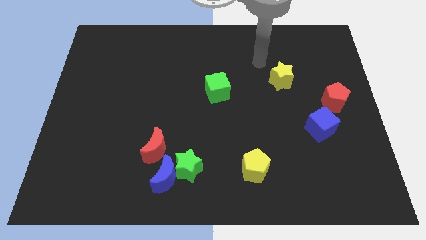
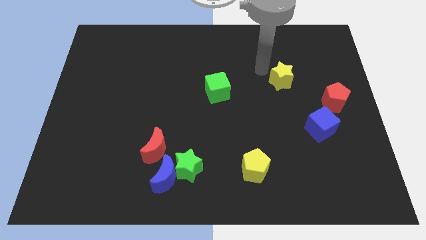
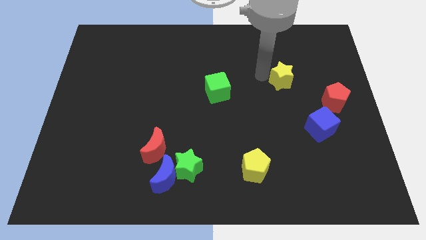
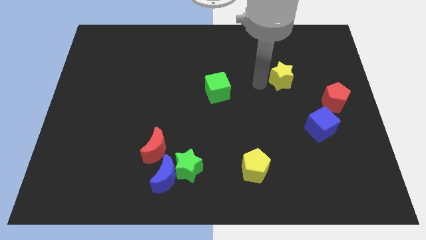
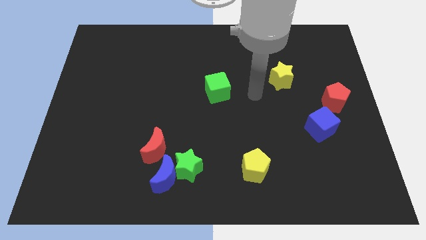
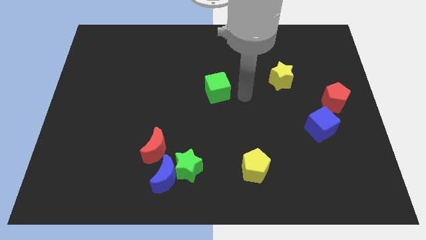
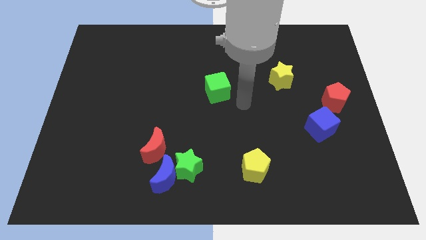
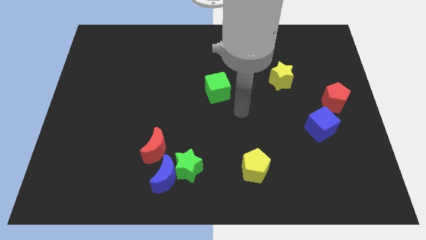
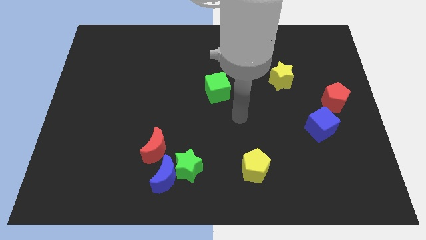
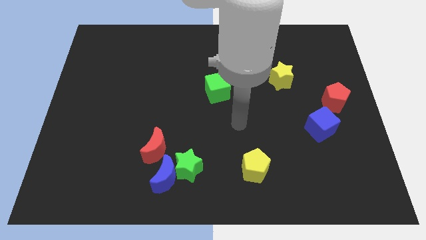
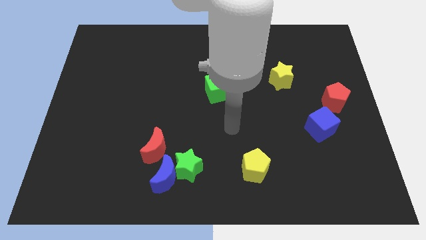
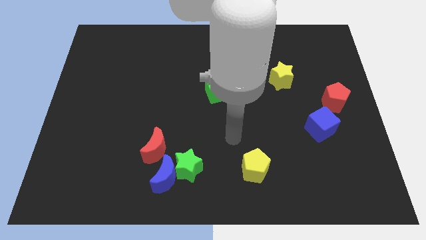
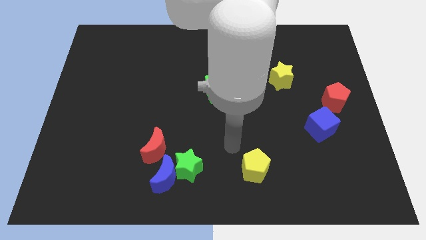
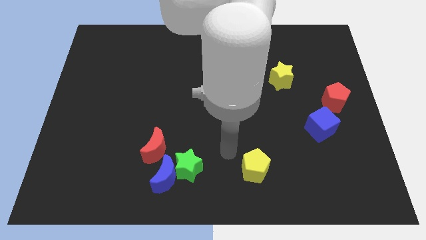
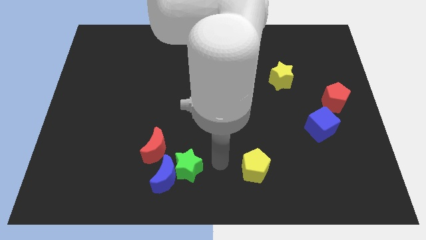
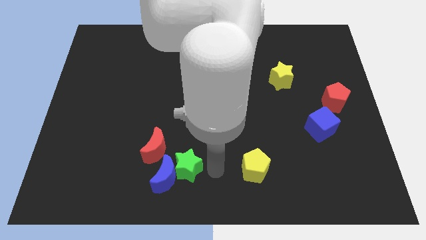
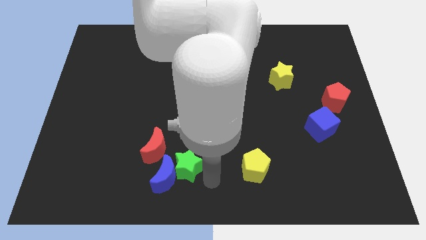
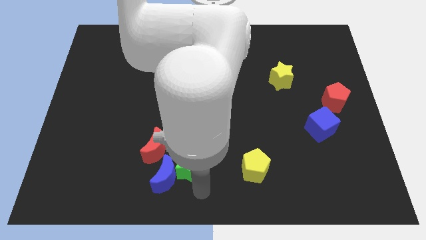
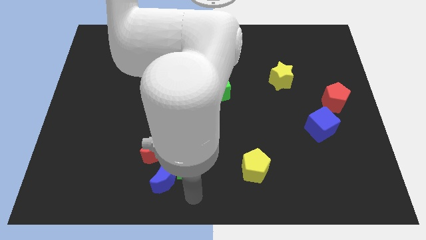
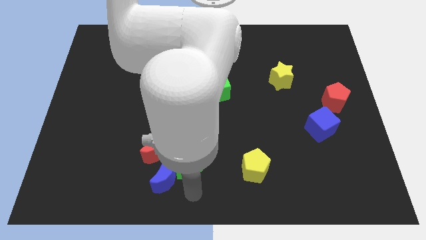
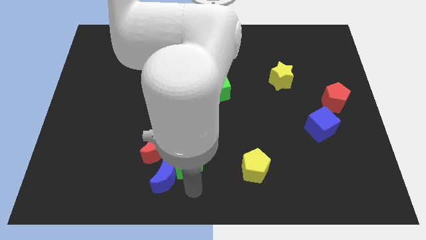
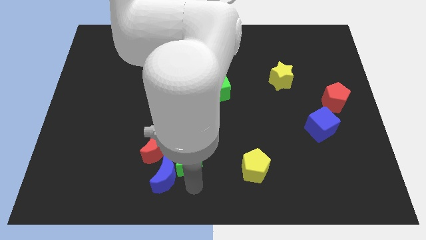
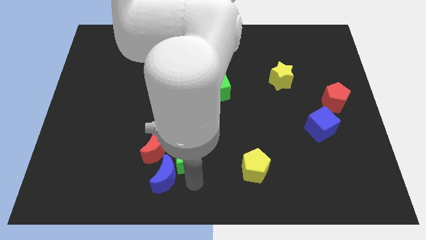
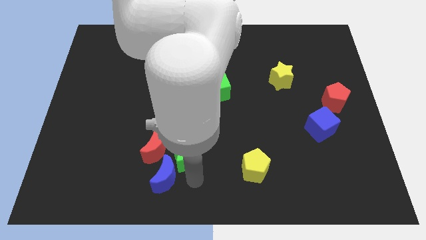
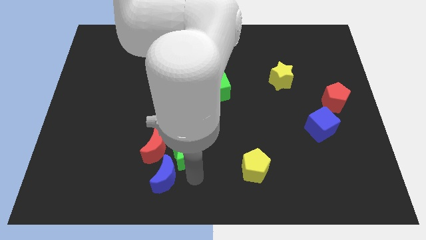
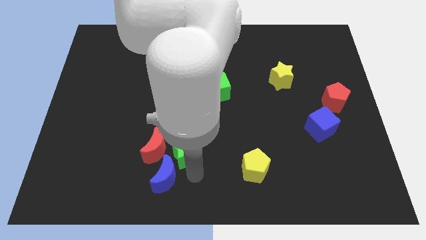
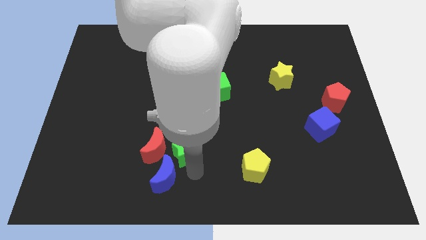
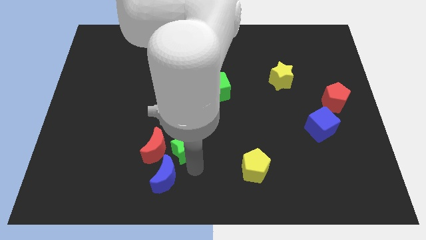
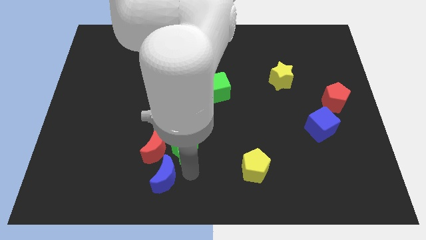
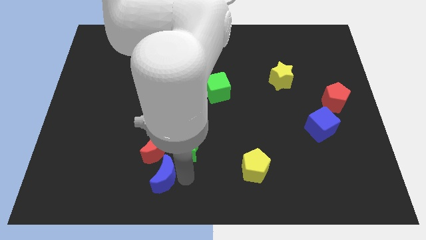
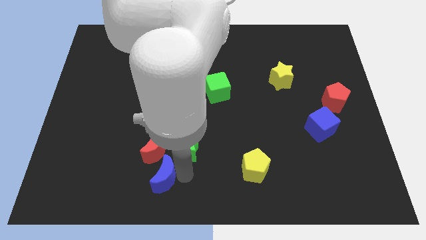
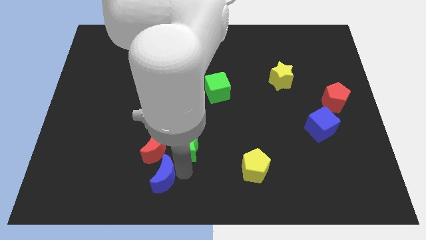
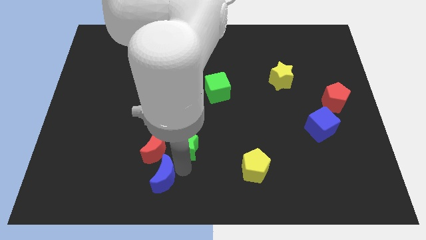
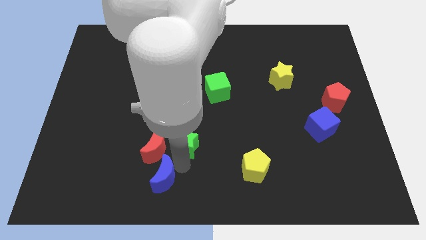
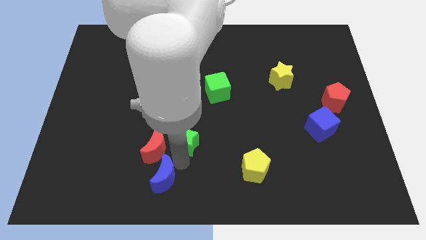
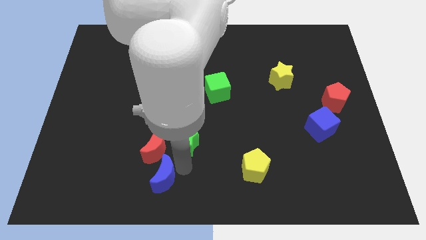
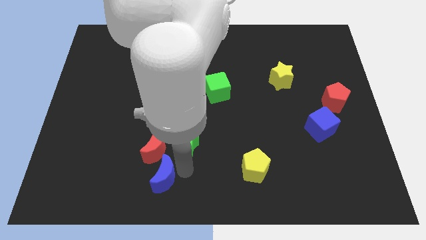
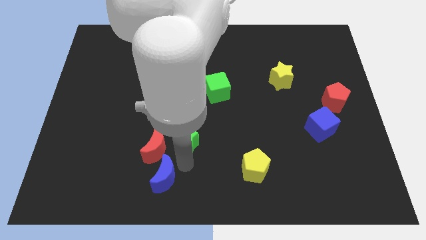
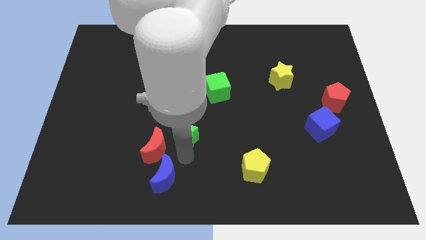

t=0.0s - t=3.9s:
slightly slide the green star up

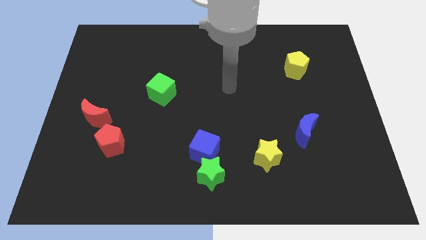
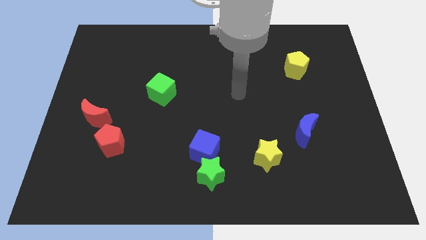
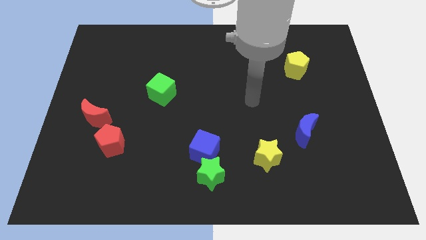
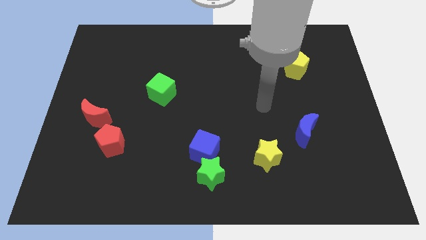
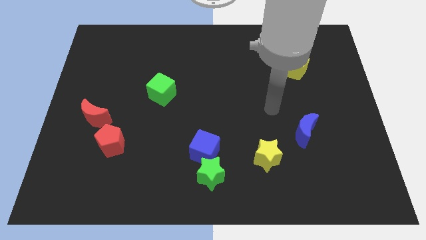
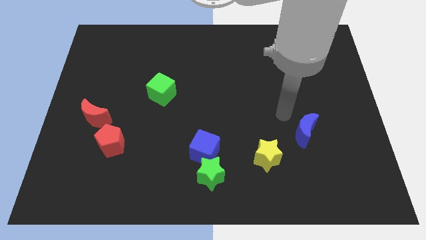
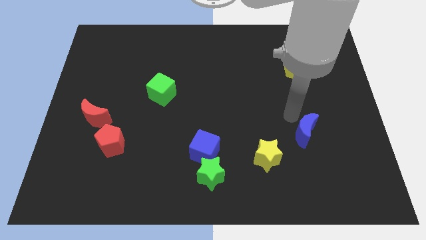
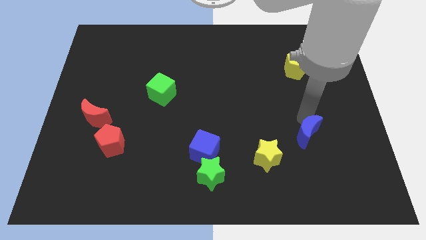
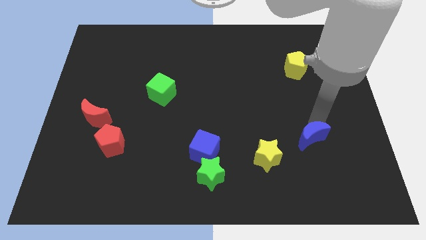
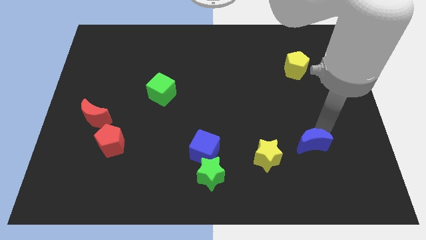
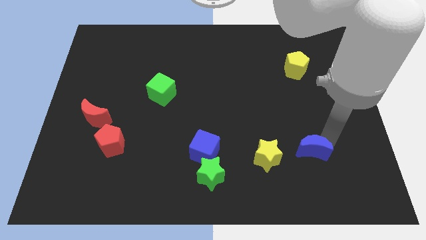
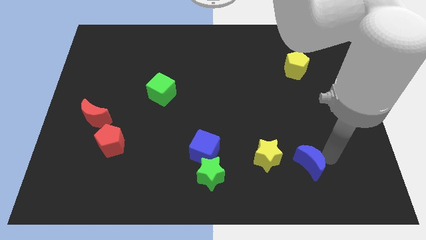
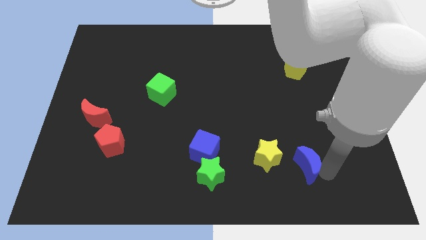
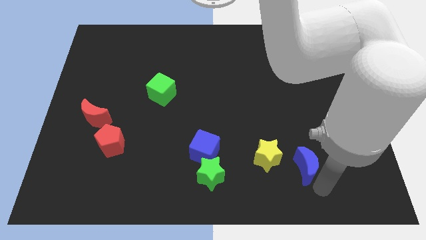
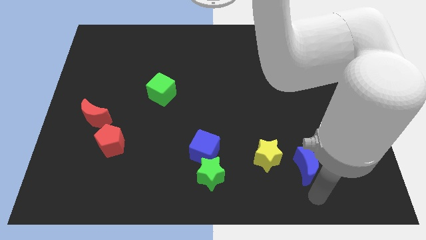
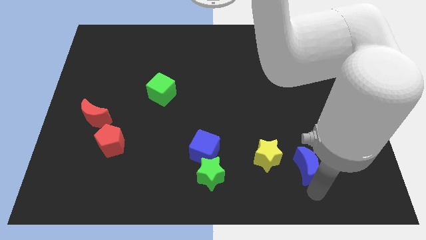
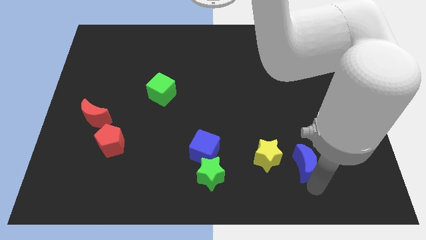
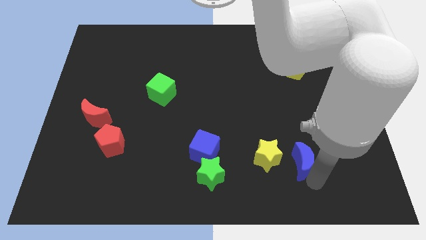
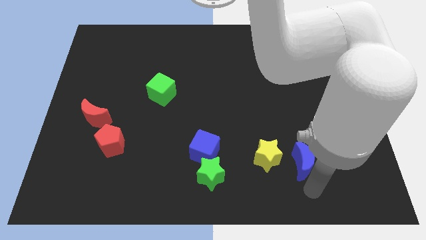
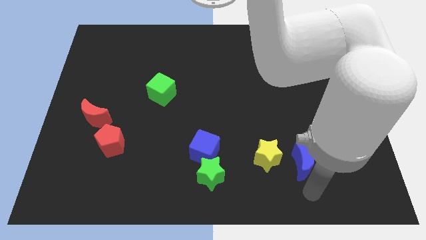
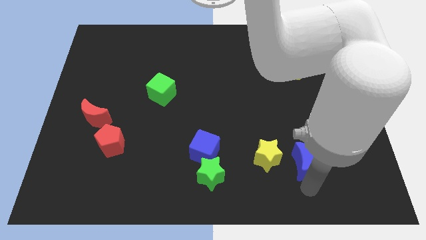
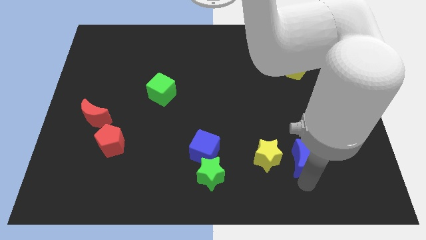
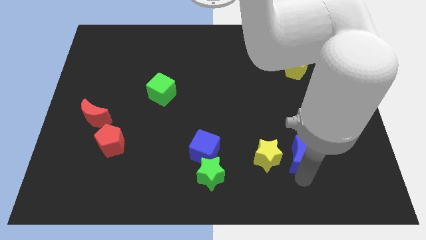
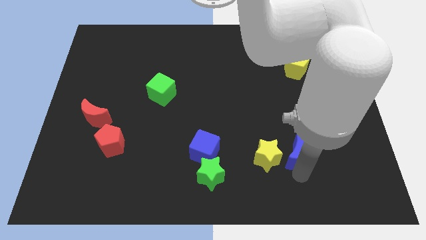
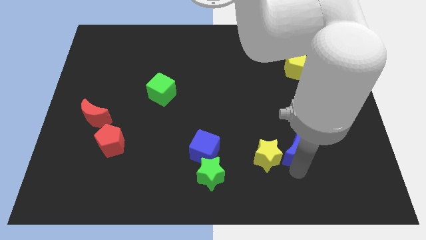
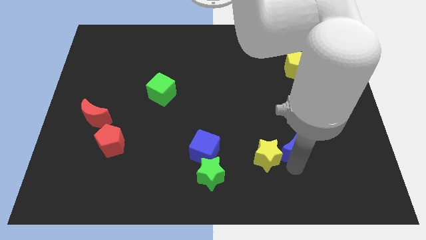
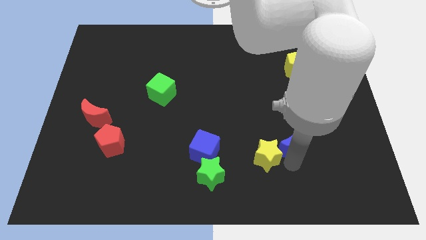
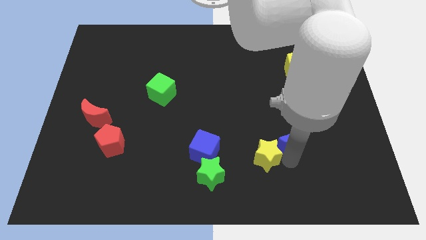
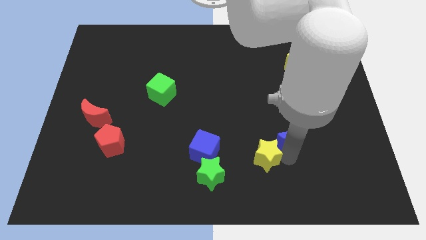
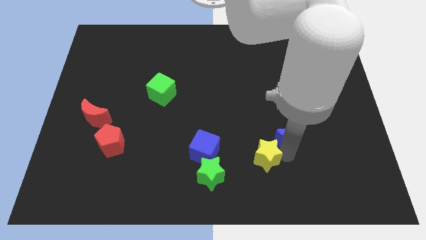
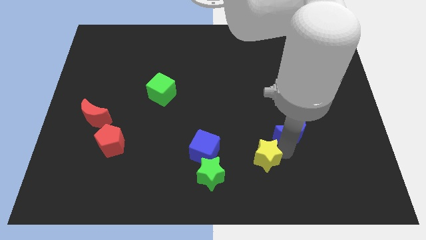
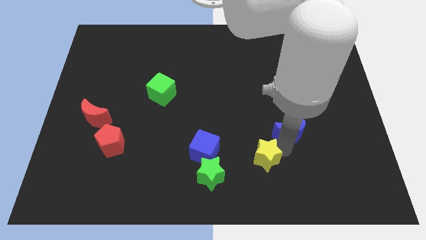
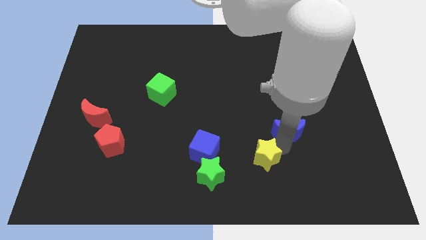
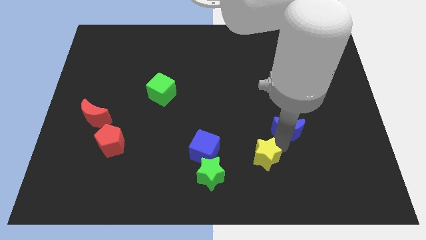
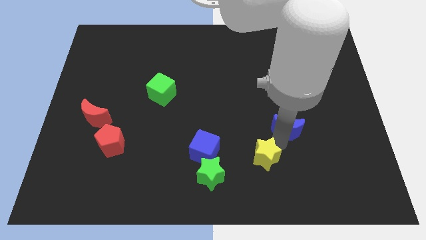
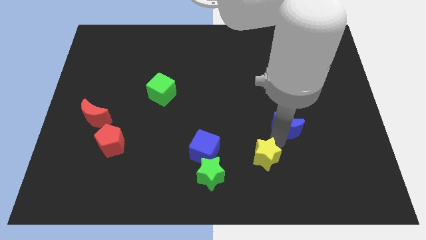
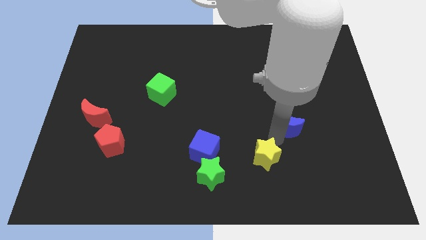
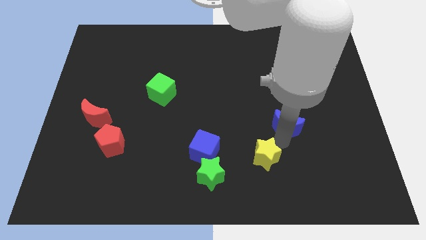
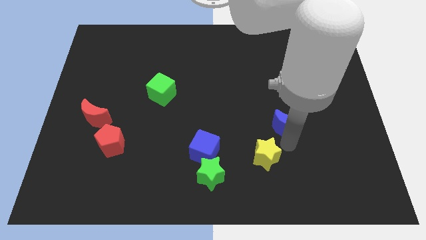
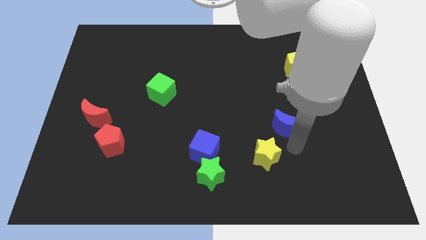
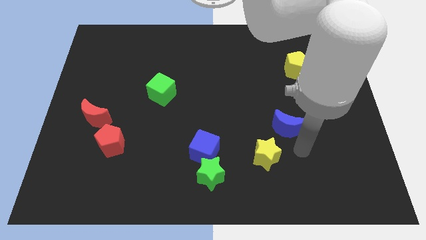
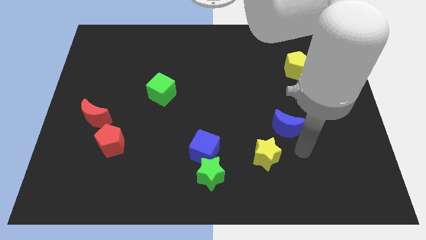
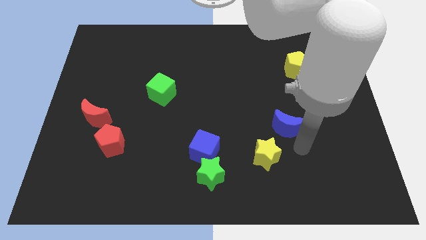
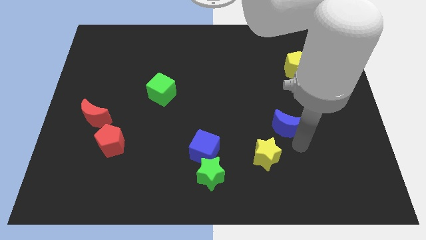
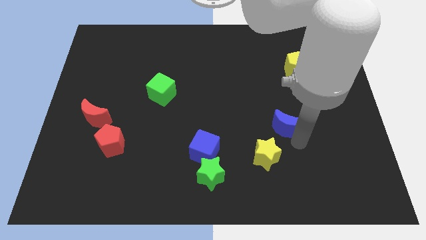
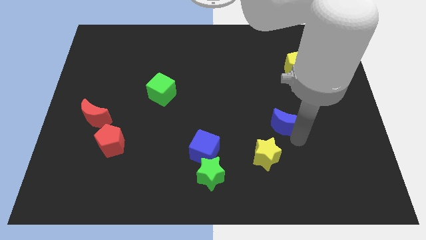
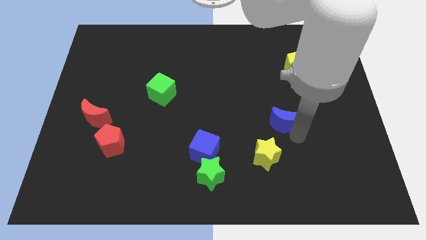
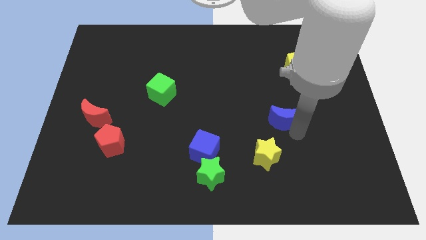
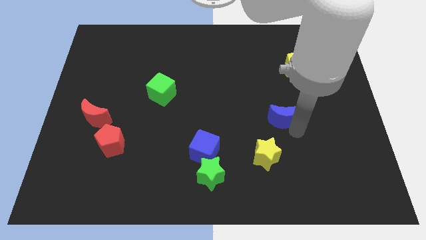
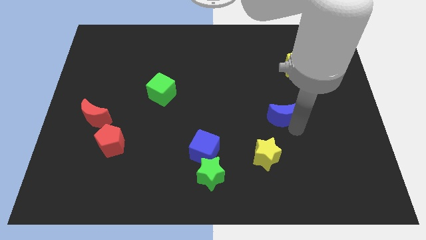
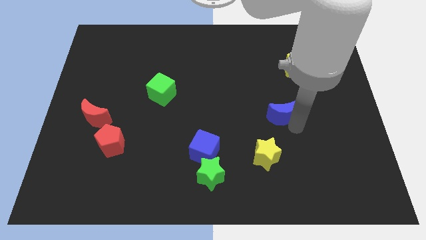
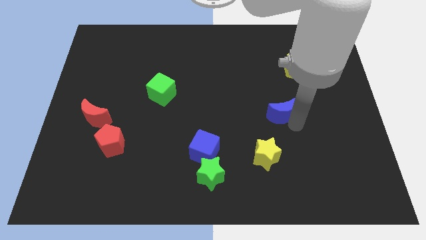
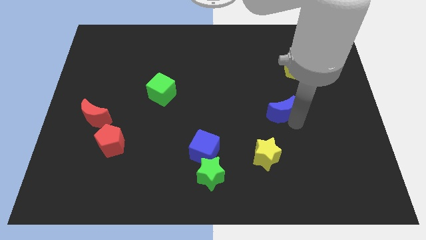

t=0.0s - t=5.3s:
slightly move the blue moon up and to the left diagonally
